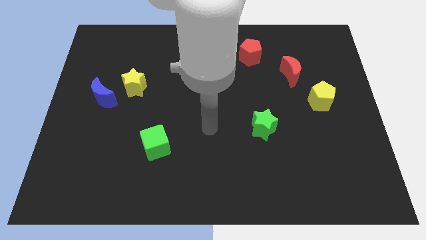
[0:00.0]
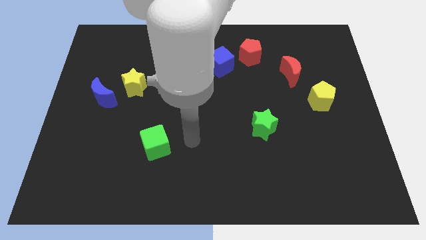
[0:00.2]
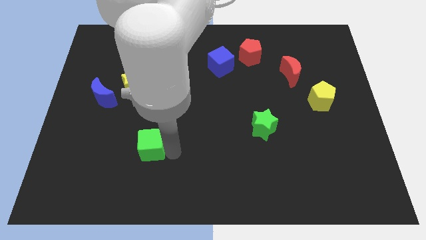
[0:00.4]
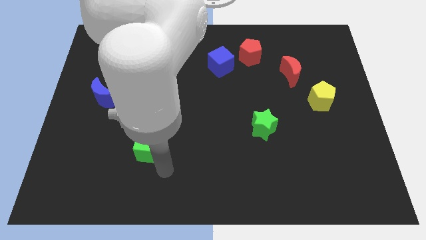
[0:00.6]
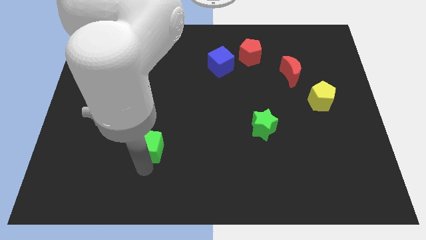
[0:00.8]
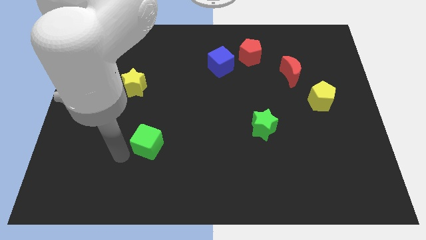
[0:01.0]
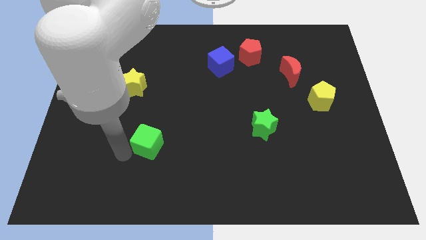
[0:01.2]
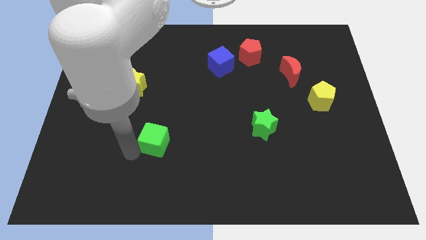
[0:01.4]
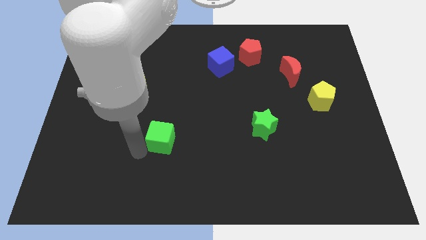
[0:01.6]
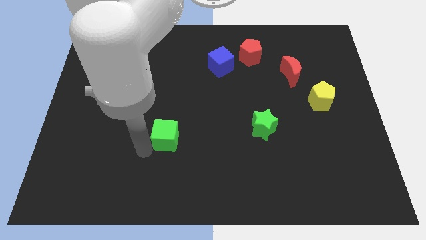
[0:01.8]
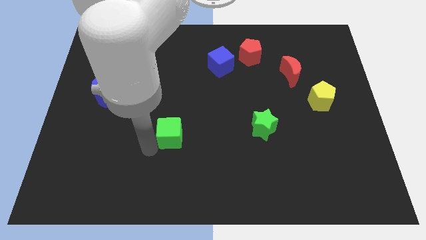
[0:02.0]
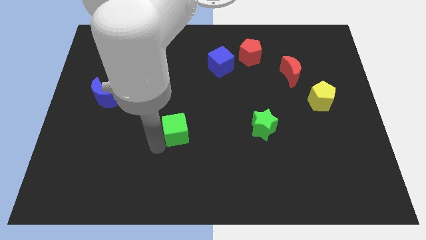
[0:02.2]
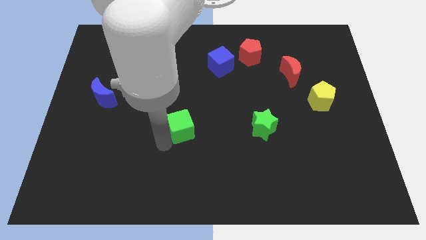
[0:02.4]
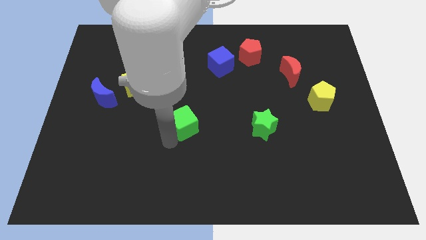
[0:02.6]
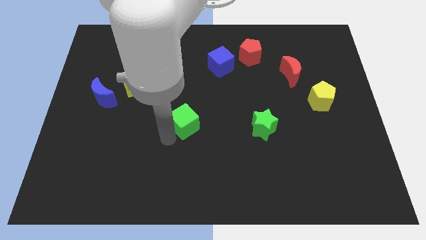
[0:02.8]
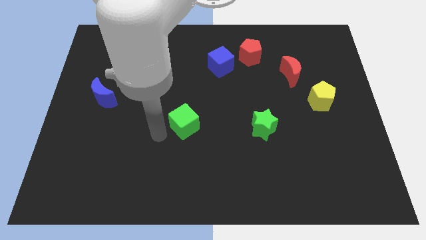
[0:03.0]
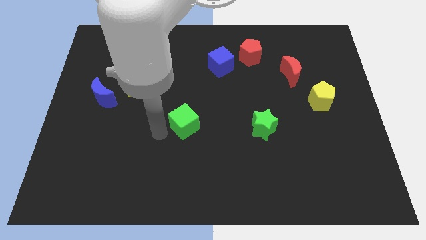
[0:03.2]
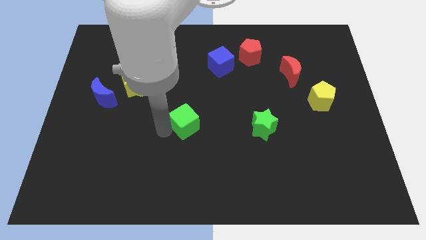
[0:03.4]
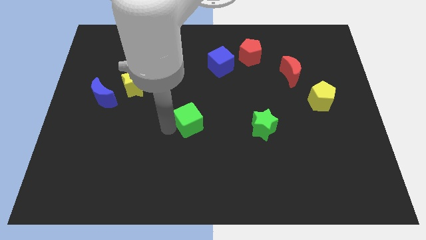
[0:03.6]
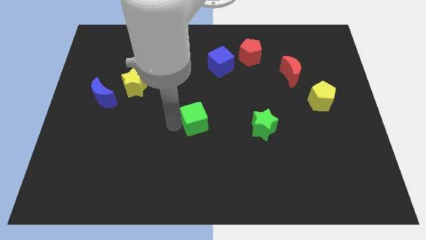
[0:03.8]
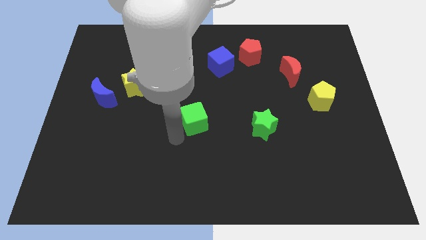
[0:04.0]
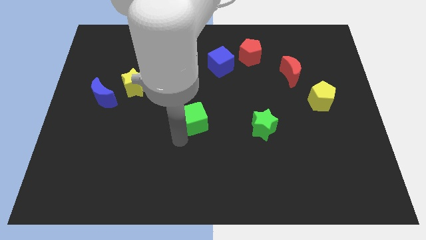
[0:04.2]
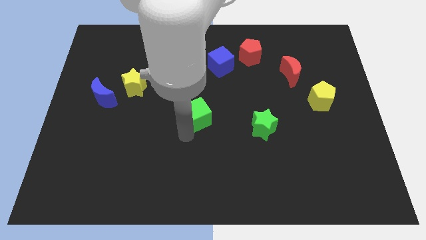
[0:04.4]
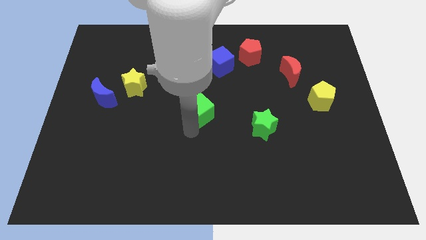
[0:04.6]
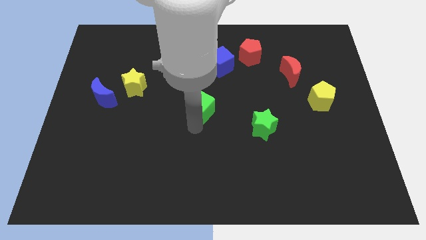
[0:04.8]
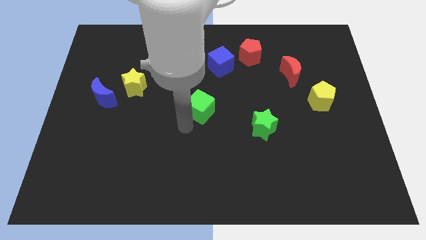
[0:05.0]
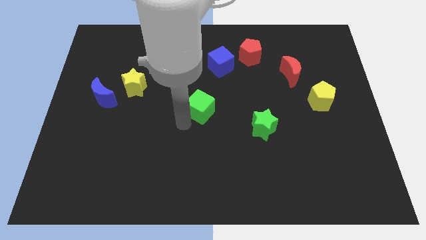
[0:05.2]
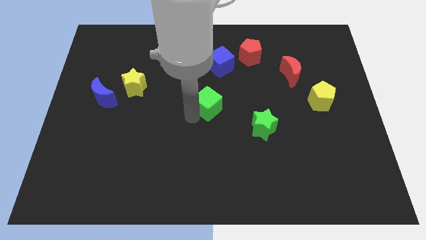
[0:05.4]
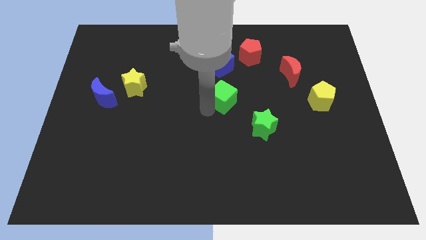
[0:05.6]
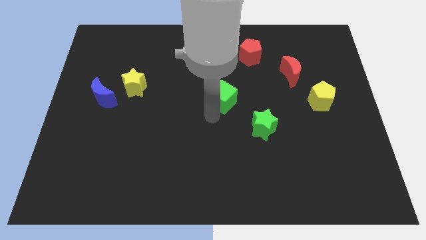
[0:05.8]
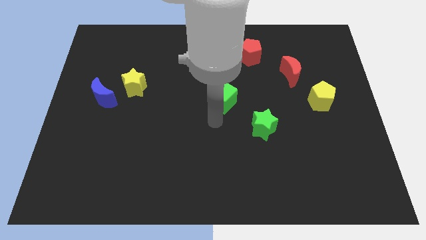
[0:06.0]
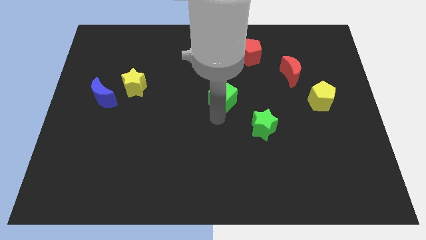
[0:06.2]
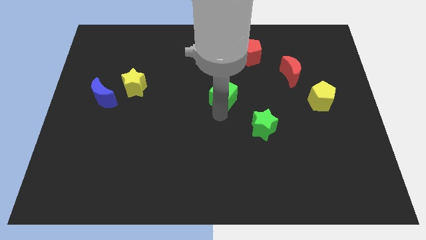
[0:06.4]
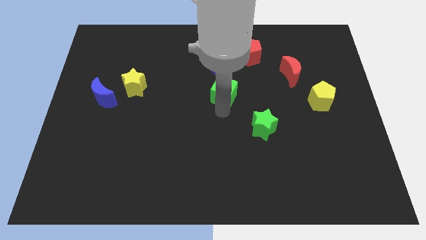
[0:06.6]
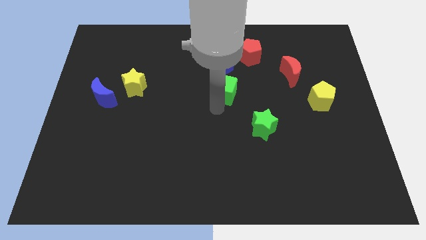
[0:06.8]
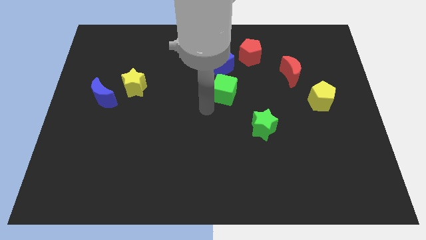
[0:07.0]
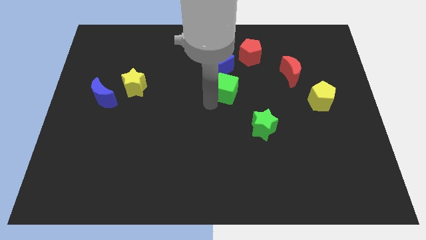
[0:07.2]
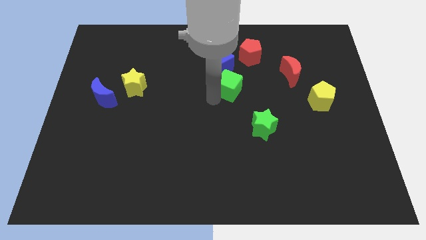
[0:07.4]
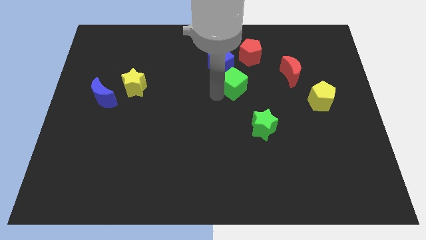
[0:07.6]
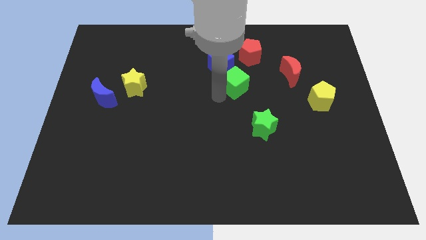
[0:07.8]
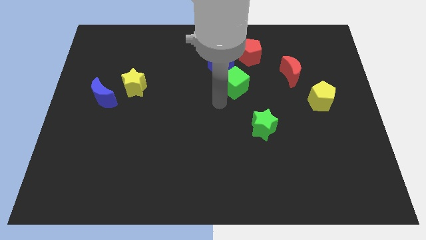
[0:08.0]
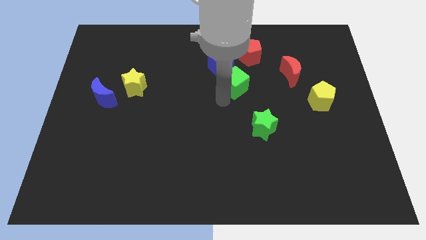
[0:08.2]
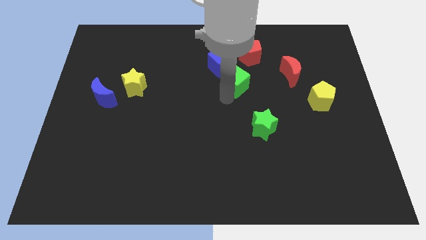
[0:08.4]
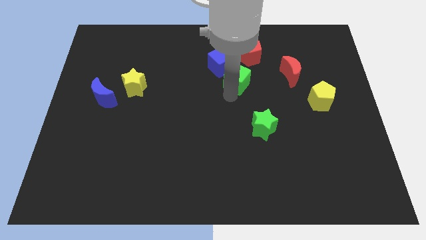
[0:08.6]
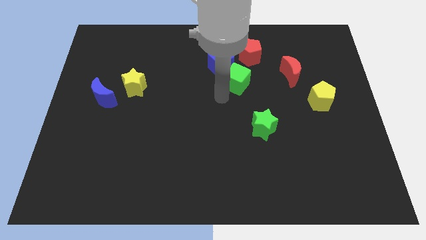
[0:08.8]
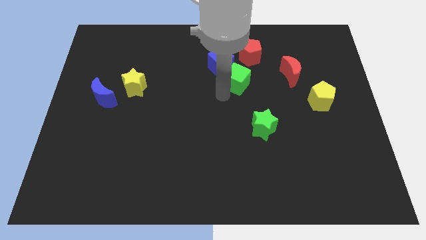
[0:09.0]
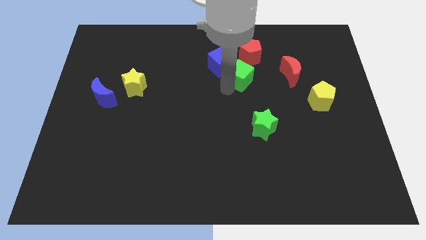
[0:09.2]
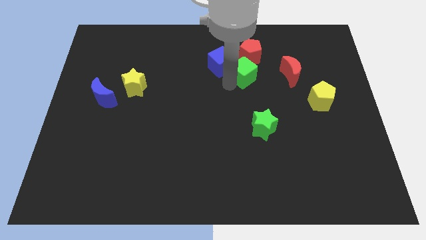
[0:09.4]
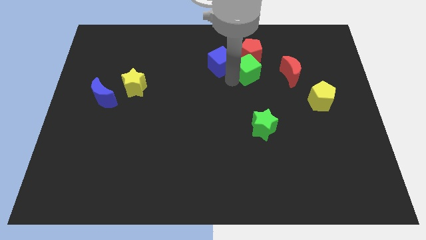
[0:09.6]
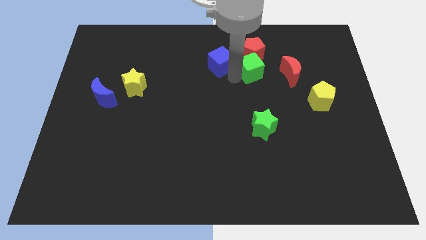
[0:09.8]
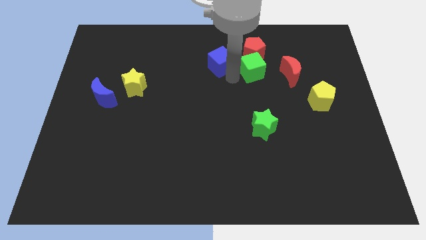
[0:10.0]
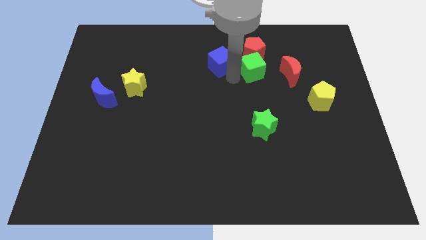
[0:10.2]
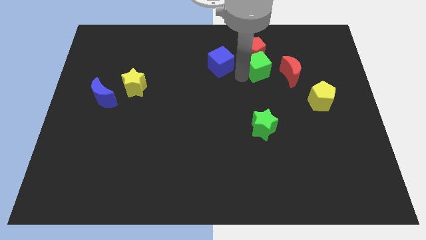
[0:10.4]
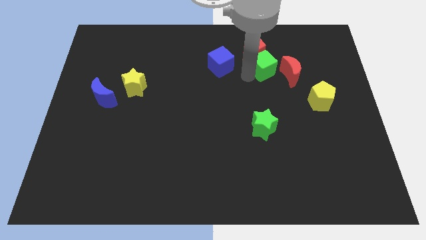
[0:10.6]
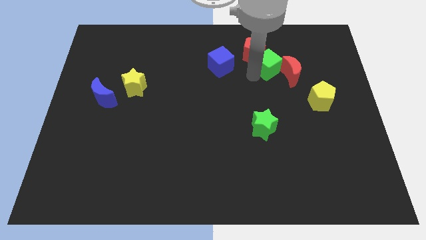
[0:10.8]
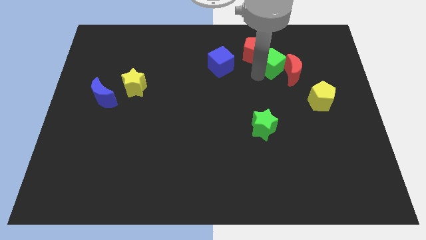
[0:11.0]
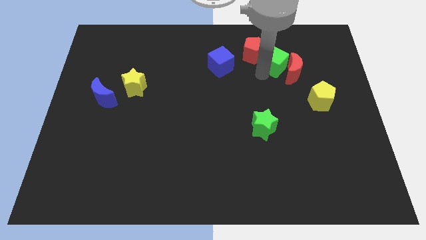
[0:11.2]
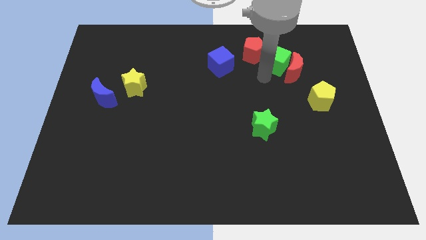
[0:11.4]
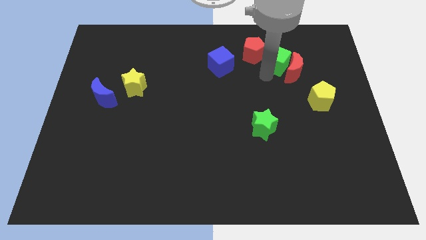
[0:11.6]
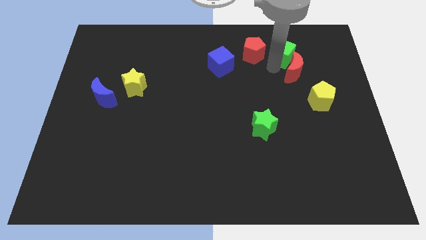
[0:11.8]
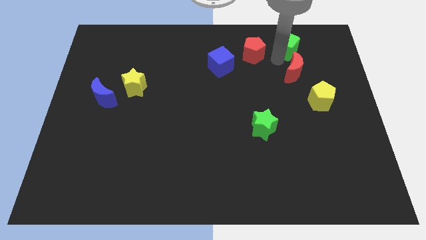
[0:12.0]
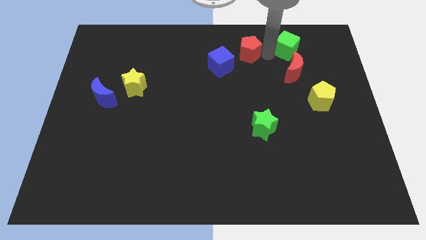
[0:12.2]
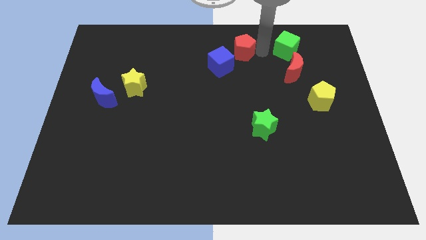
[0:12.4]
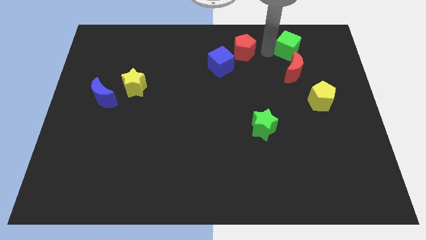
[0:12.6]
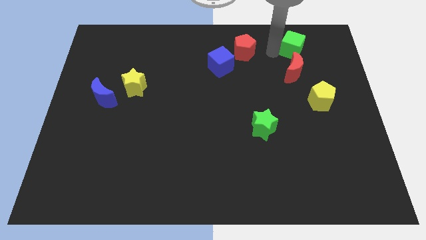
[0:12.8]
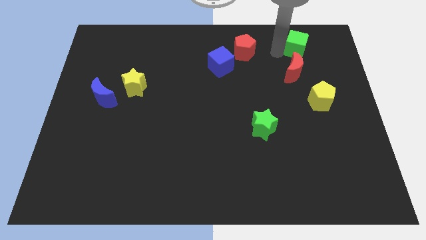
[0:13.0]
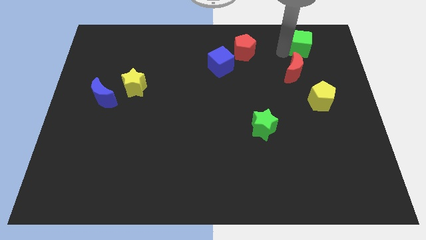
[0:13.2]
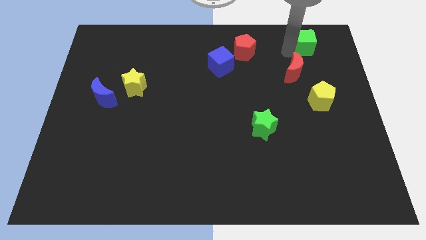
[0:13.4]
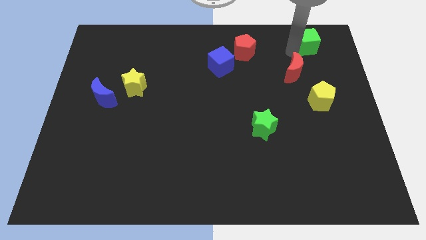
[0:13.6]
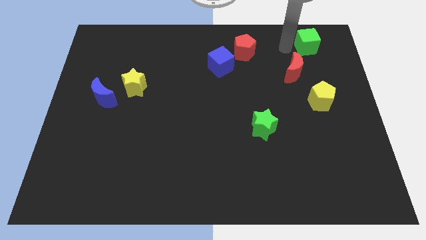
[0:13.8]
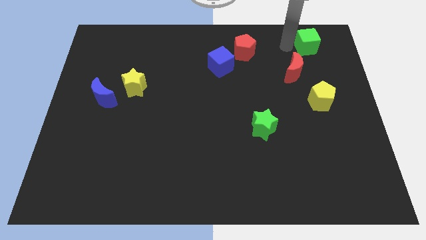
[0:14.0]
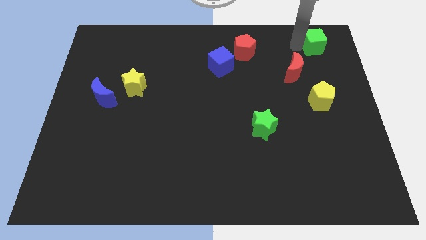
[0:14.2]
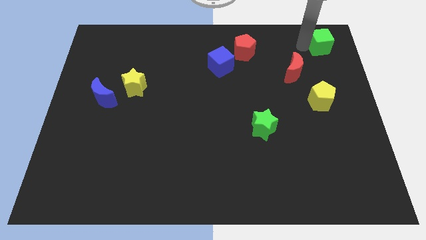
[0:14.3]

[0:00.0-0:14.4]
push the green cube to the top right corner
